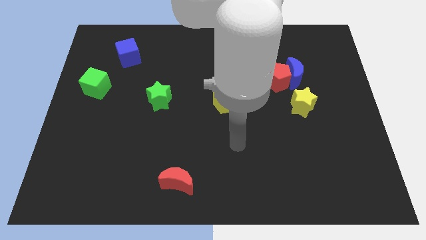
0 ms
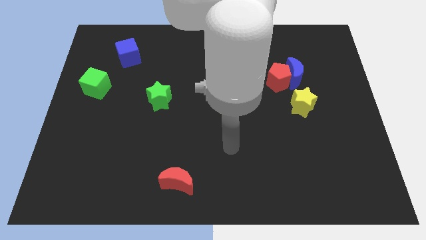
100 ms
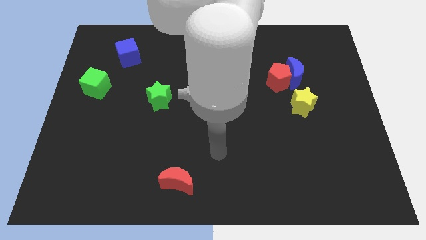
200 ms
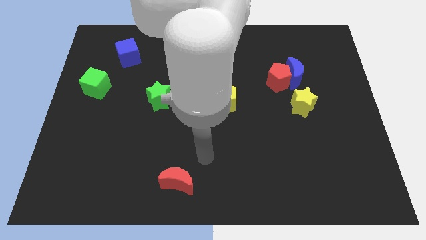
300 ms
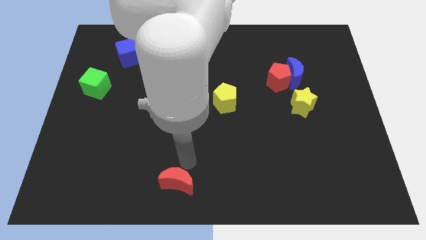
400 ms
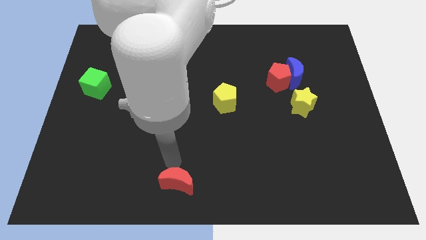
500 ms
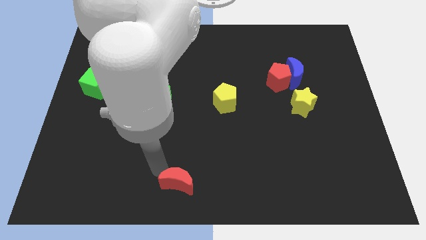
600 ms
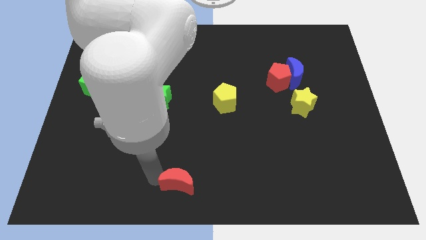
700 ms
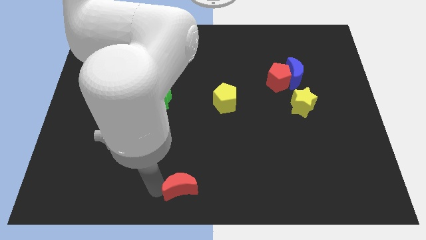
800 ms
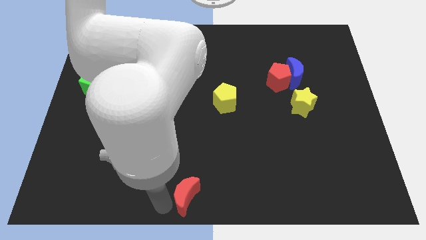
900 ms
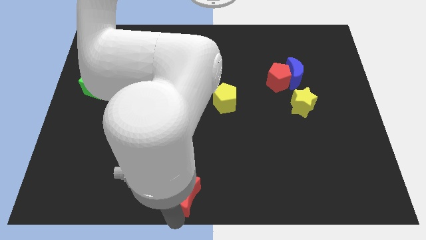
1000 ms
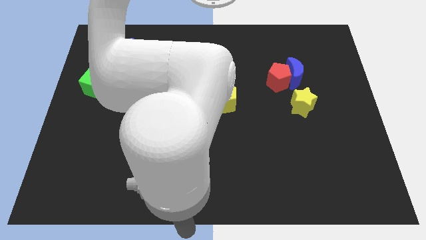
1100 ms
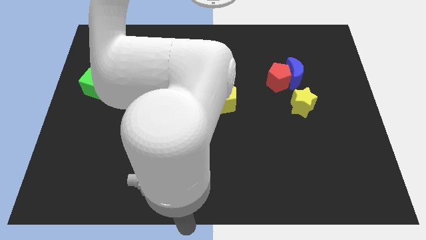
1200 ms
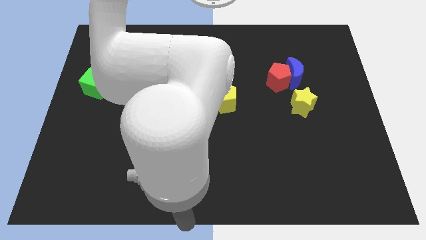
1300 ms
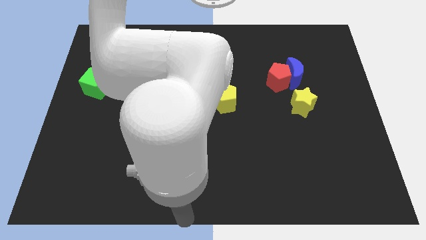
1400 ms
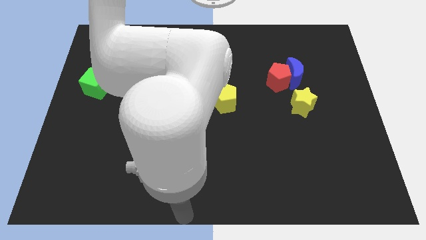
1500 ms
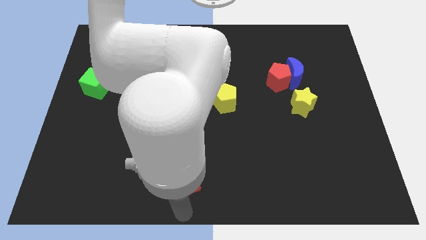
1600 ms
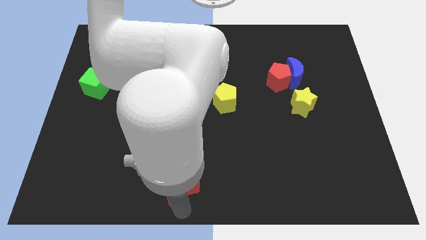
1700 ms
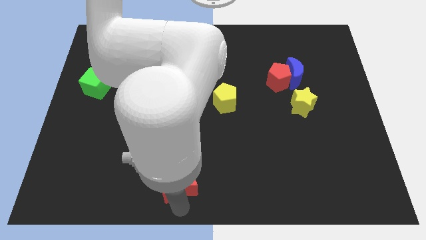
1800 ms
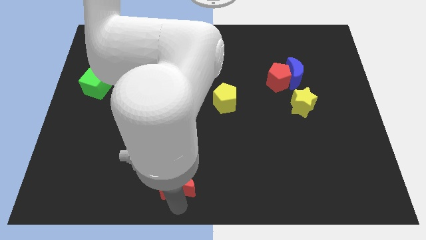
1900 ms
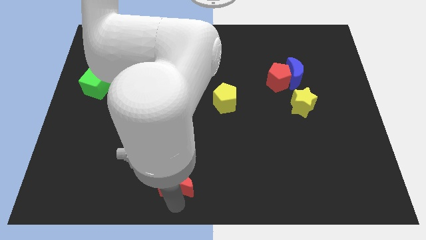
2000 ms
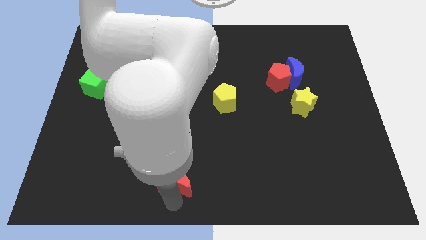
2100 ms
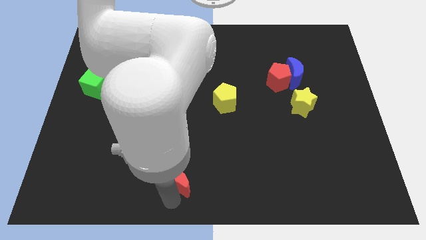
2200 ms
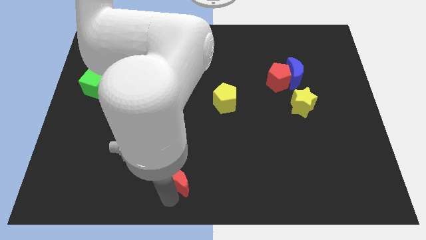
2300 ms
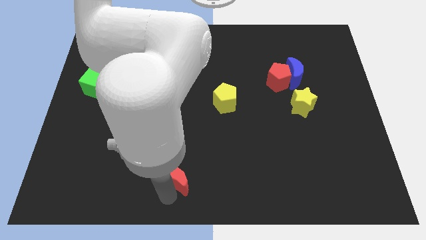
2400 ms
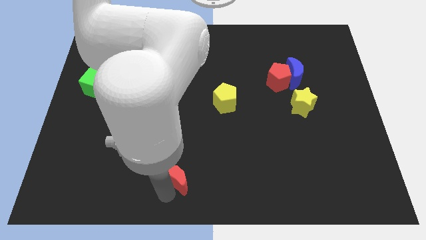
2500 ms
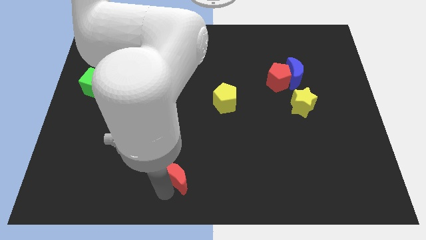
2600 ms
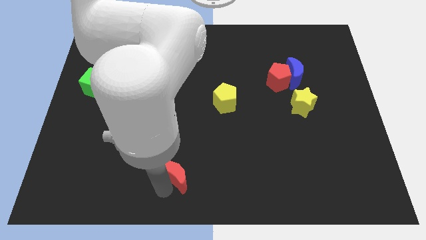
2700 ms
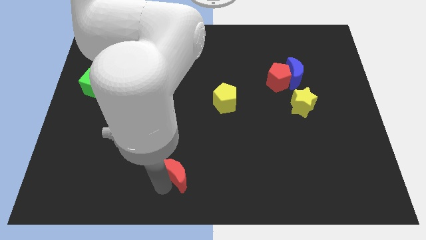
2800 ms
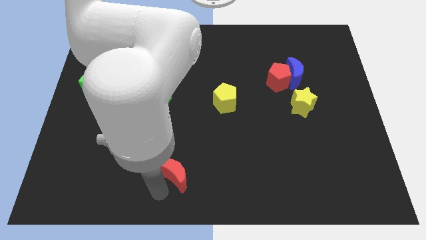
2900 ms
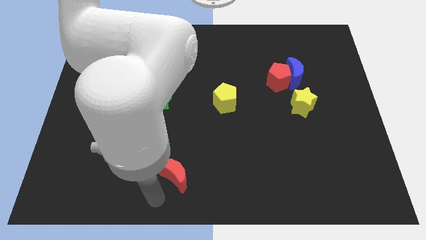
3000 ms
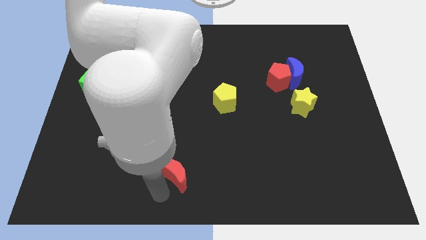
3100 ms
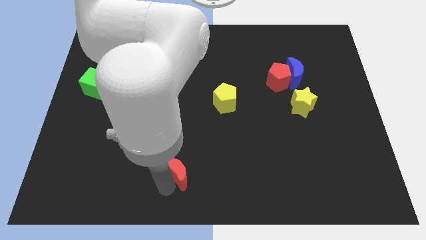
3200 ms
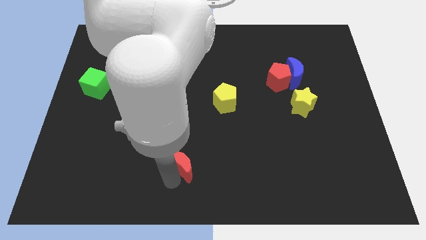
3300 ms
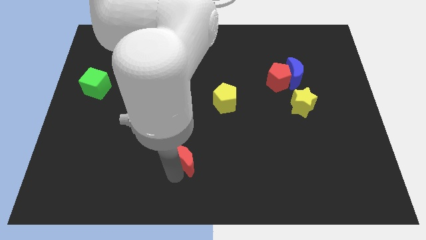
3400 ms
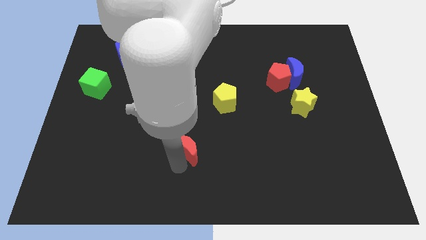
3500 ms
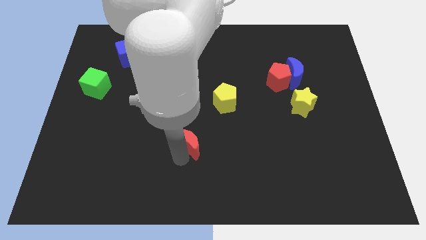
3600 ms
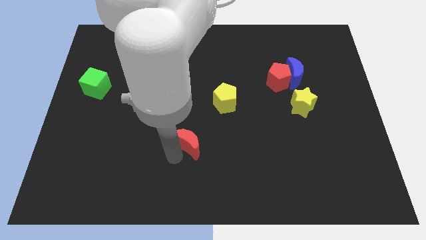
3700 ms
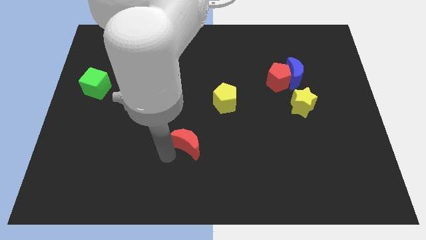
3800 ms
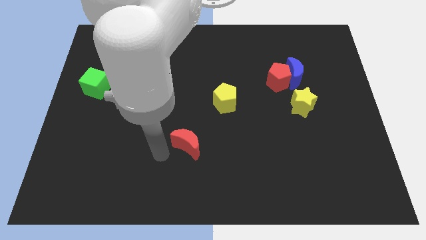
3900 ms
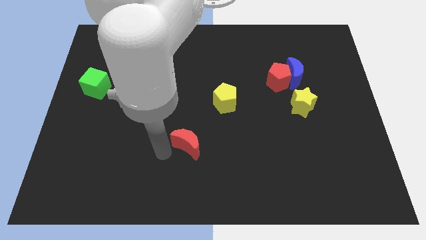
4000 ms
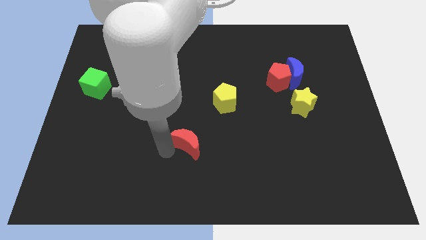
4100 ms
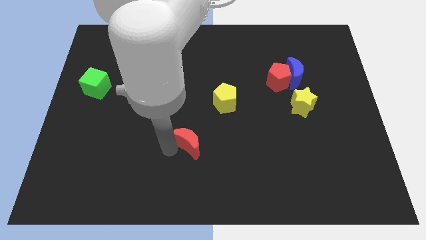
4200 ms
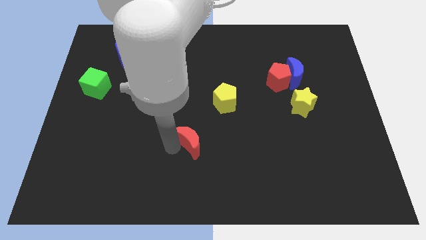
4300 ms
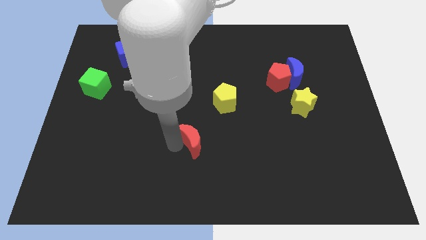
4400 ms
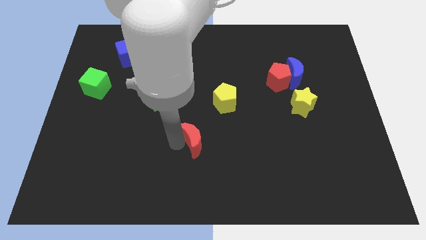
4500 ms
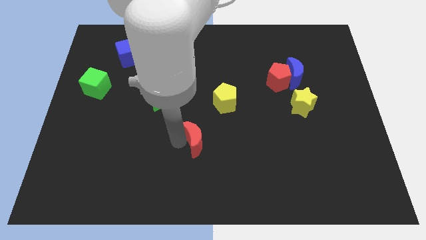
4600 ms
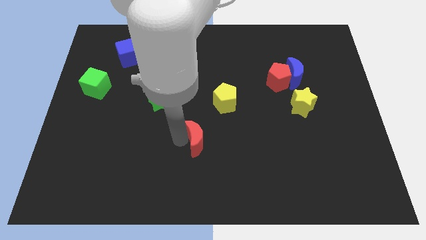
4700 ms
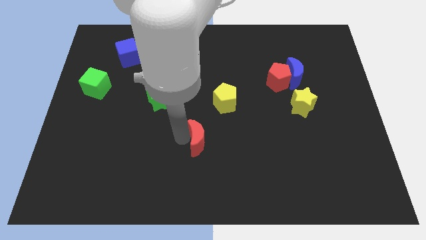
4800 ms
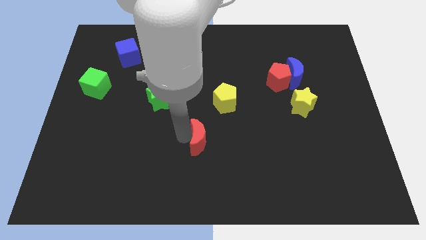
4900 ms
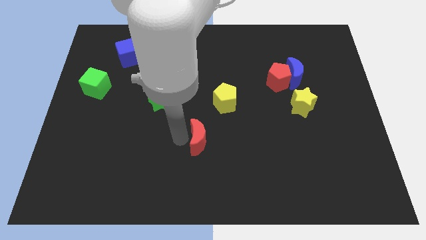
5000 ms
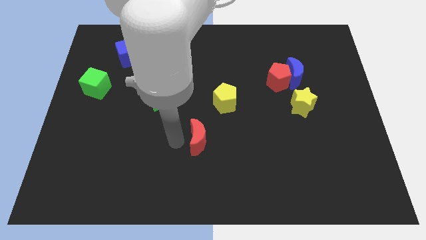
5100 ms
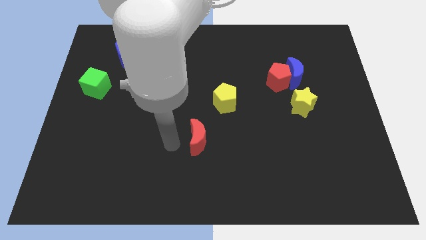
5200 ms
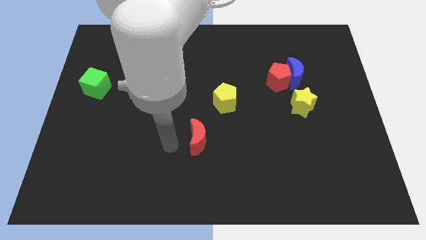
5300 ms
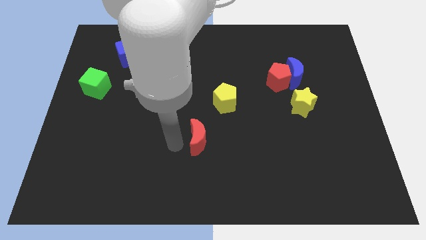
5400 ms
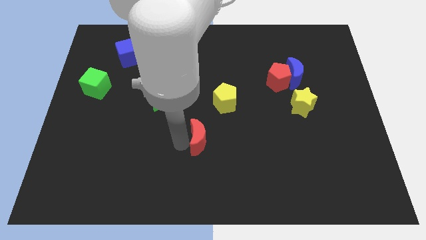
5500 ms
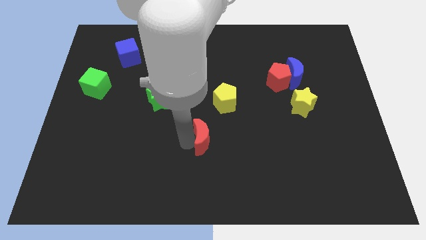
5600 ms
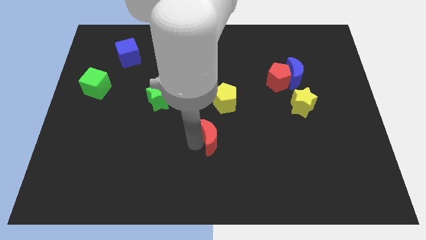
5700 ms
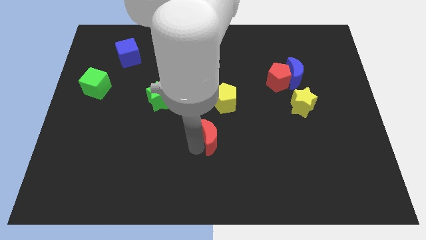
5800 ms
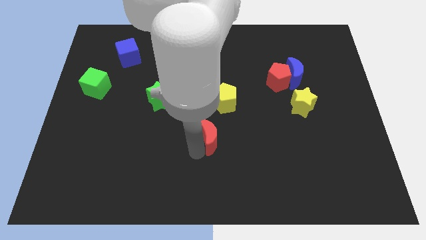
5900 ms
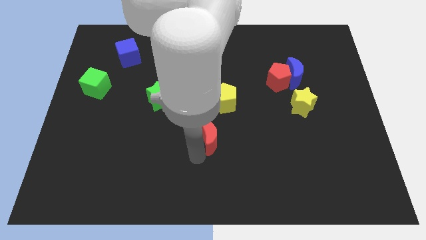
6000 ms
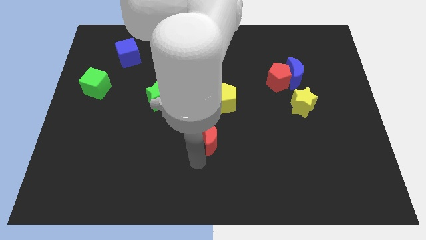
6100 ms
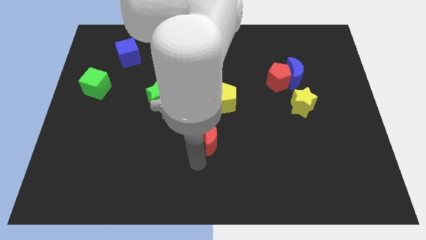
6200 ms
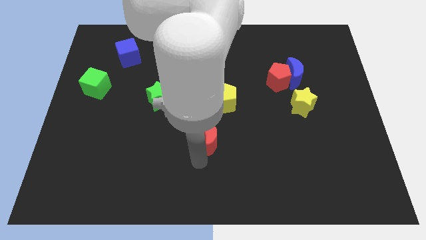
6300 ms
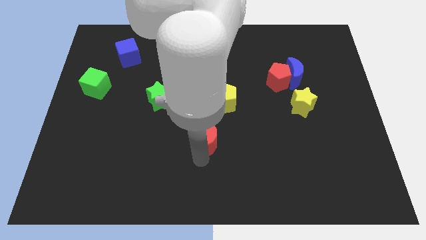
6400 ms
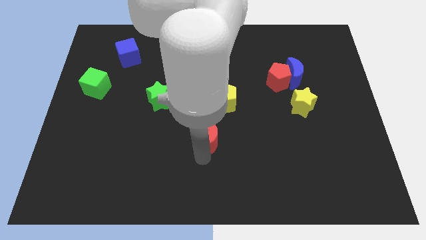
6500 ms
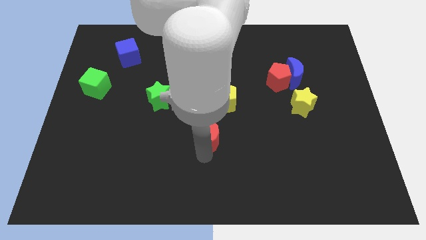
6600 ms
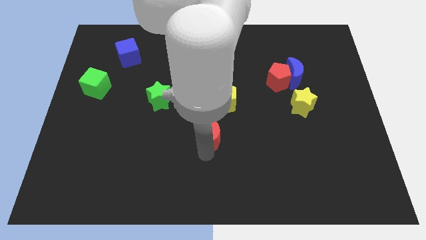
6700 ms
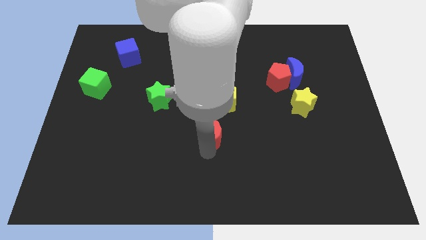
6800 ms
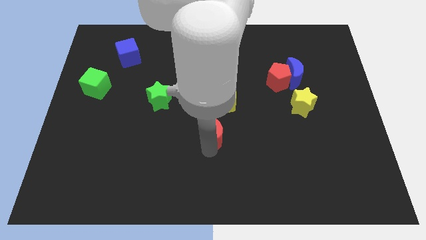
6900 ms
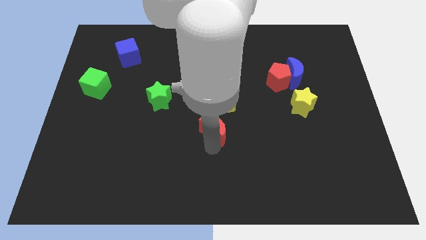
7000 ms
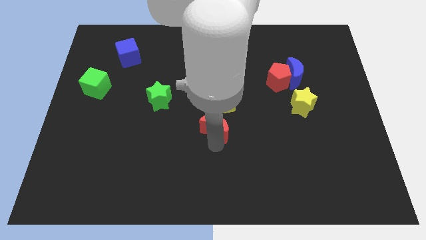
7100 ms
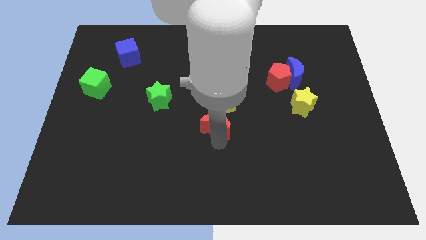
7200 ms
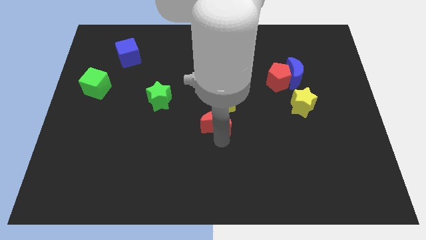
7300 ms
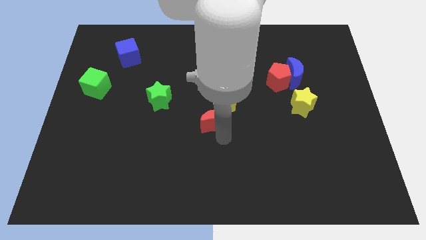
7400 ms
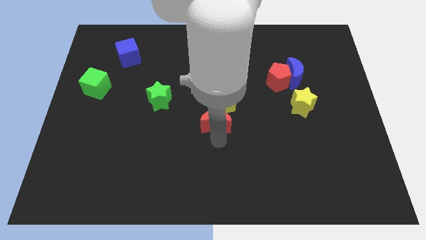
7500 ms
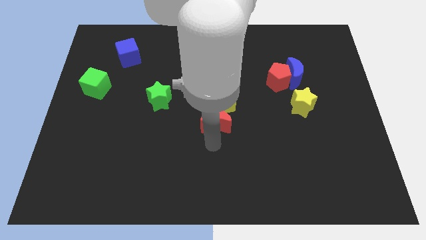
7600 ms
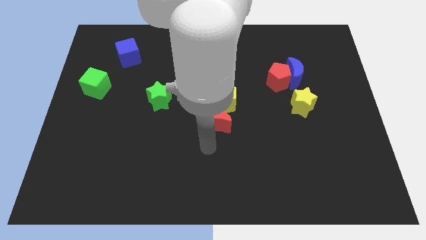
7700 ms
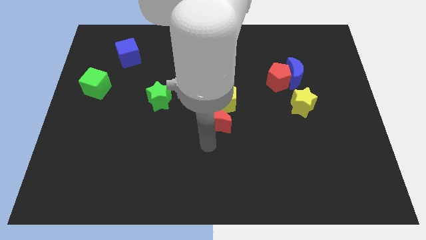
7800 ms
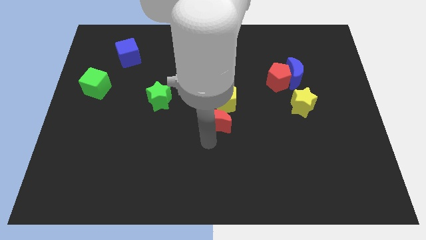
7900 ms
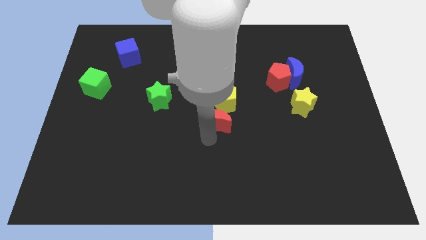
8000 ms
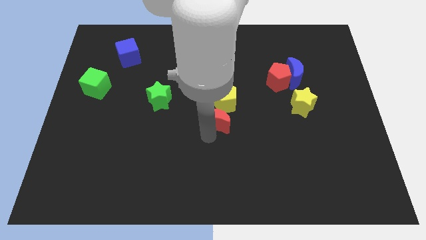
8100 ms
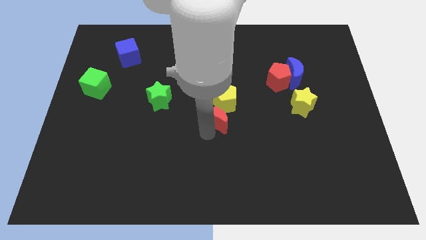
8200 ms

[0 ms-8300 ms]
move the red moon to the yellow pentagon
